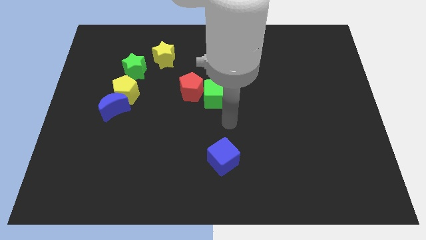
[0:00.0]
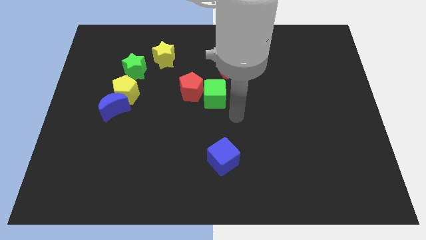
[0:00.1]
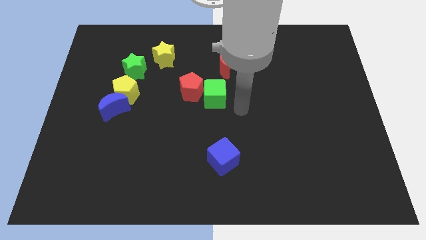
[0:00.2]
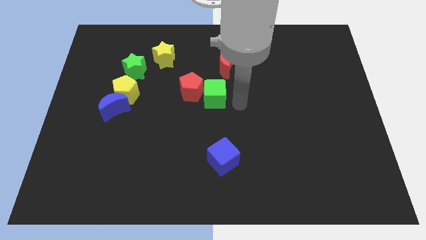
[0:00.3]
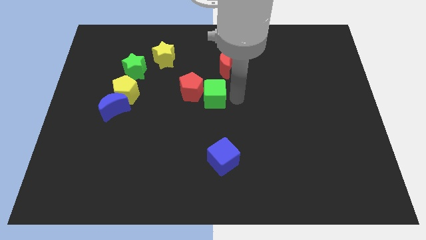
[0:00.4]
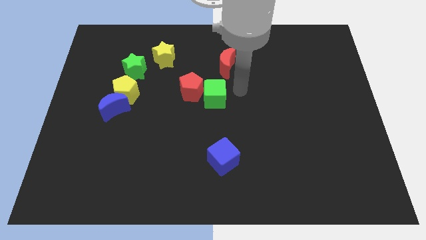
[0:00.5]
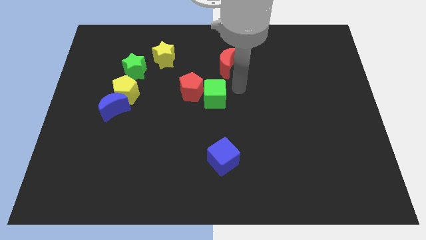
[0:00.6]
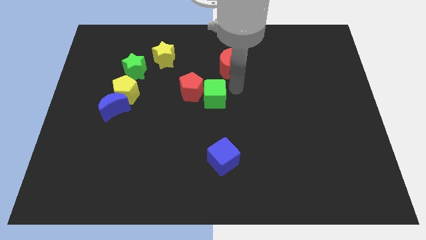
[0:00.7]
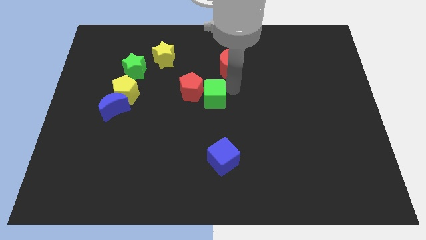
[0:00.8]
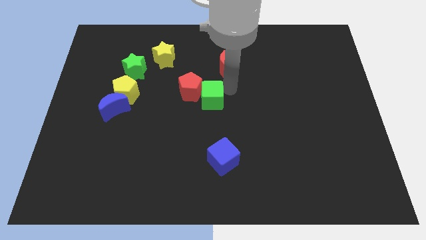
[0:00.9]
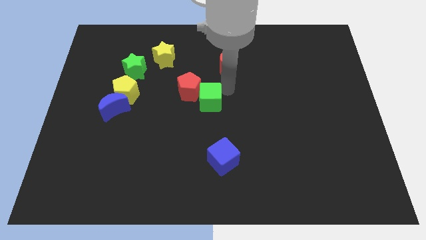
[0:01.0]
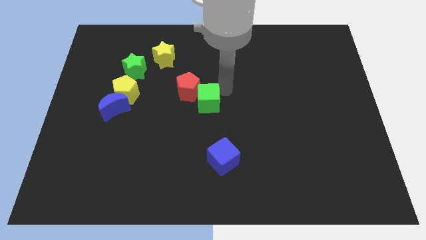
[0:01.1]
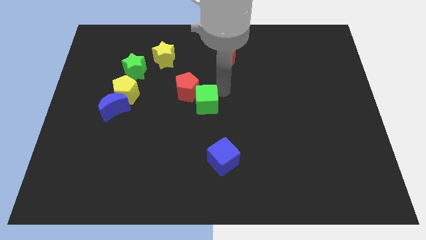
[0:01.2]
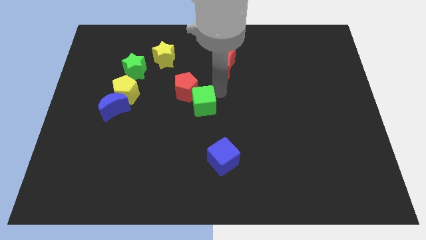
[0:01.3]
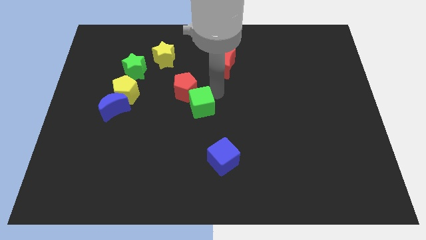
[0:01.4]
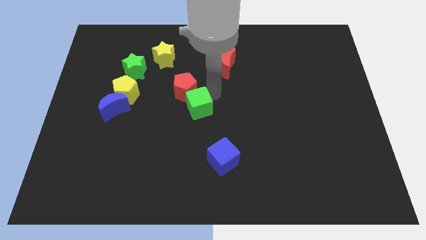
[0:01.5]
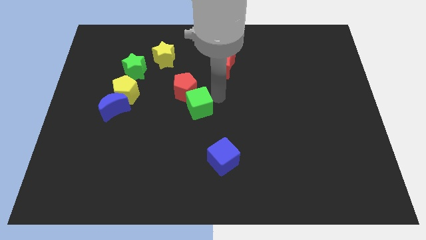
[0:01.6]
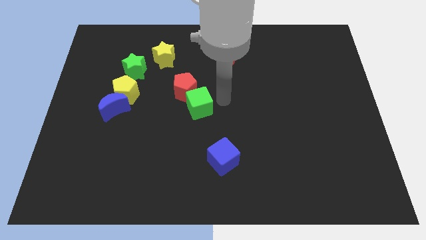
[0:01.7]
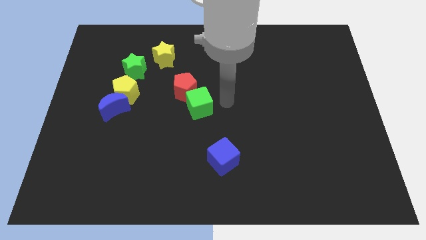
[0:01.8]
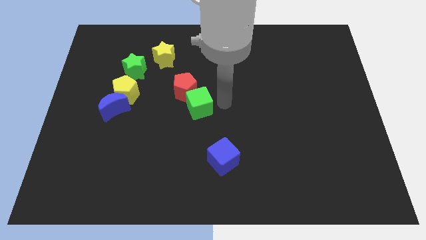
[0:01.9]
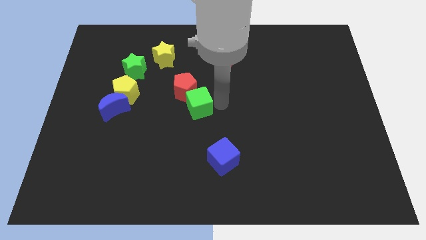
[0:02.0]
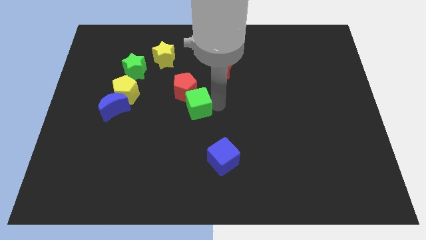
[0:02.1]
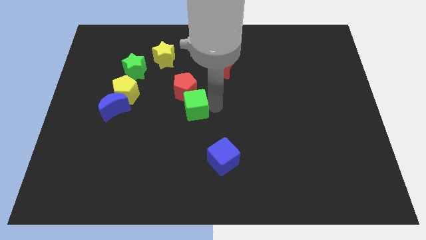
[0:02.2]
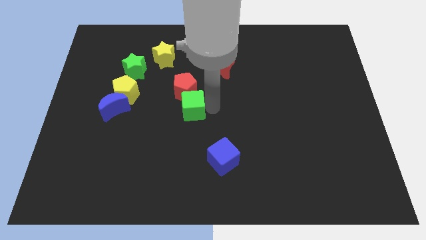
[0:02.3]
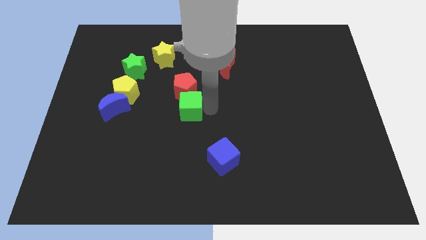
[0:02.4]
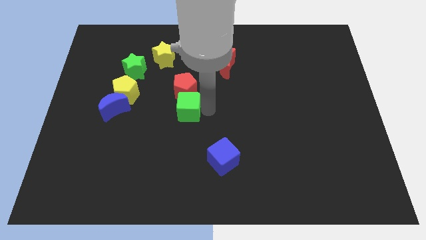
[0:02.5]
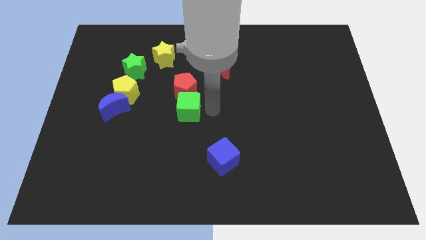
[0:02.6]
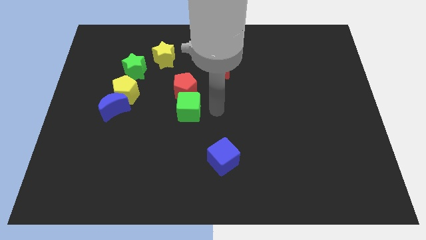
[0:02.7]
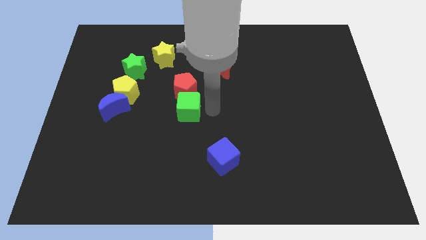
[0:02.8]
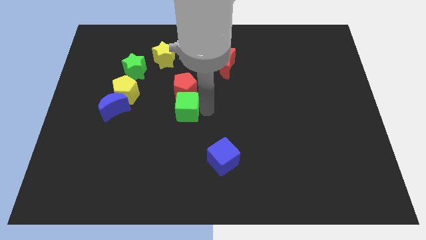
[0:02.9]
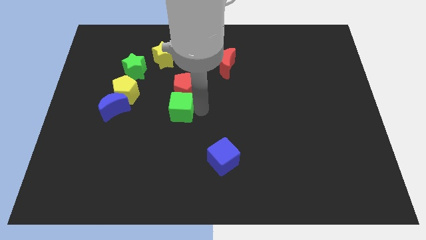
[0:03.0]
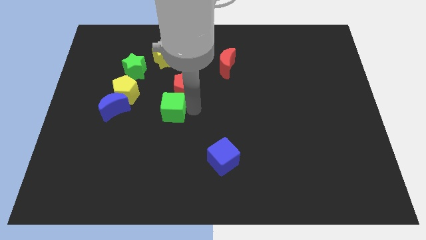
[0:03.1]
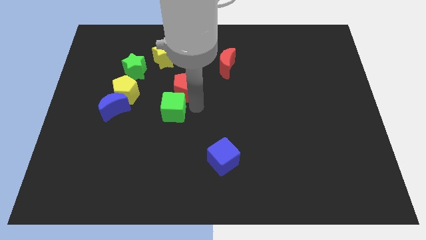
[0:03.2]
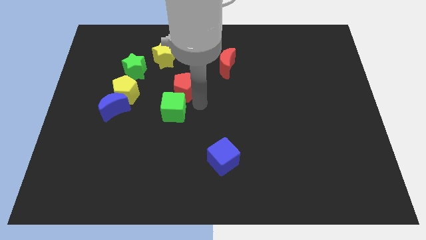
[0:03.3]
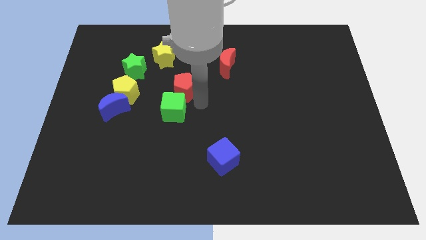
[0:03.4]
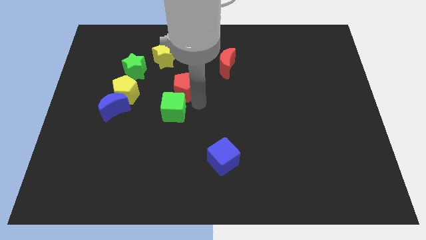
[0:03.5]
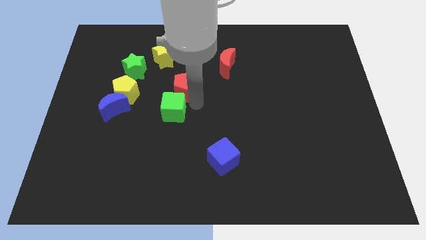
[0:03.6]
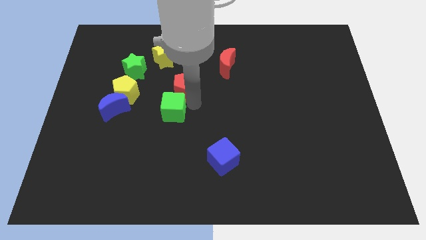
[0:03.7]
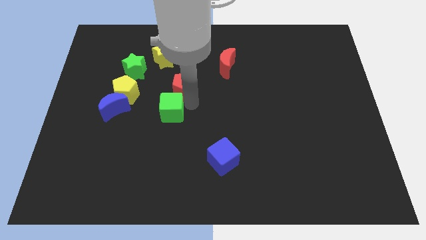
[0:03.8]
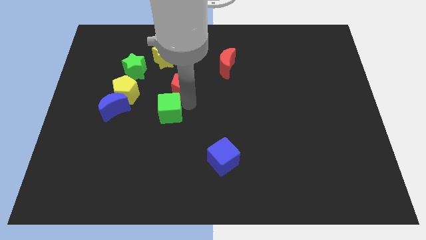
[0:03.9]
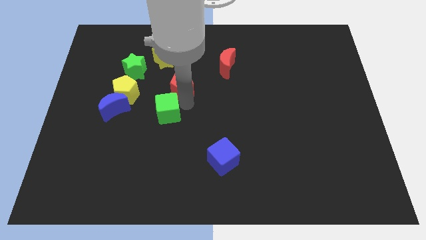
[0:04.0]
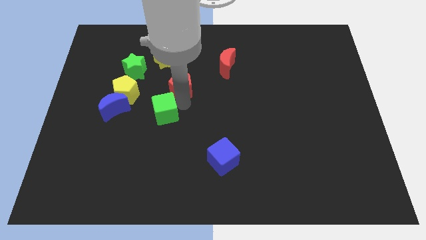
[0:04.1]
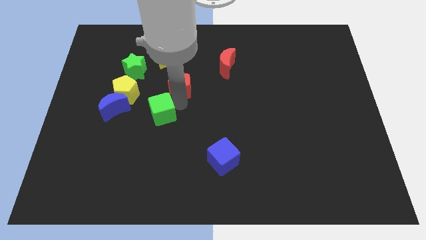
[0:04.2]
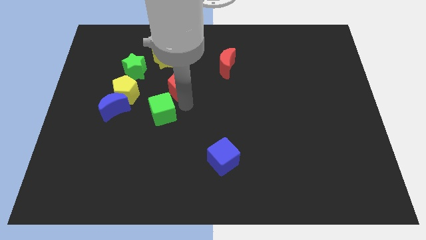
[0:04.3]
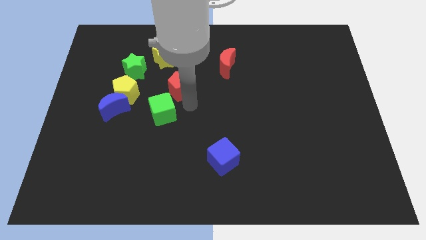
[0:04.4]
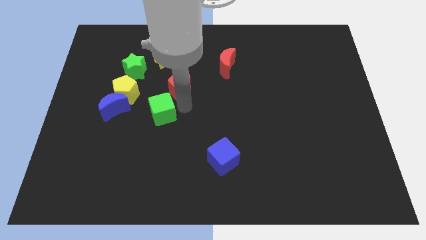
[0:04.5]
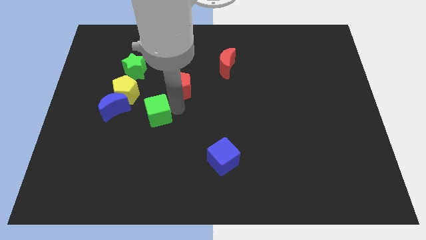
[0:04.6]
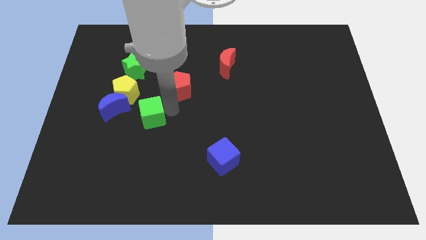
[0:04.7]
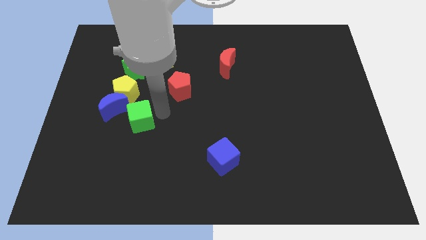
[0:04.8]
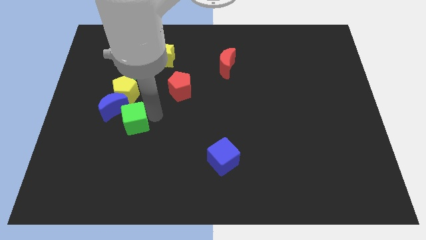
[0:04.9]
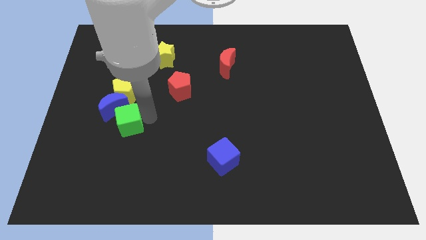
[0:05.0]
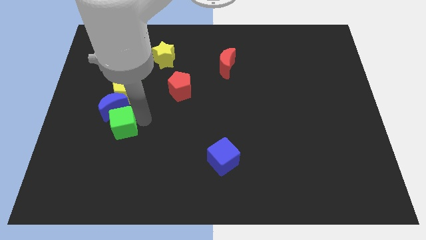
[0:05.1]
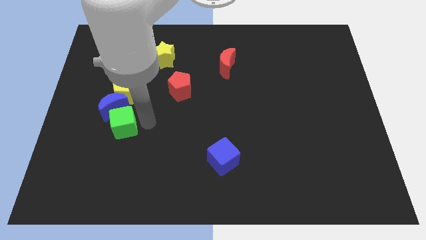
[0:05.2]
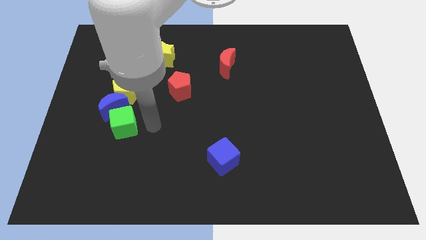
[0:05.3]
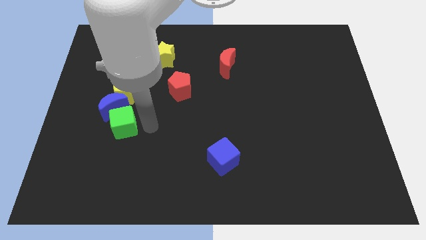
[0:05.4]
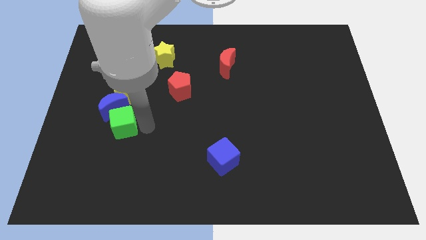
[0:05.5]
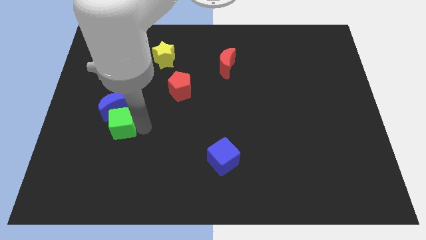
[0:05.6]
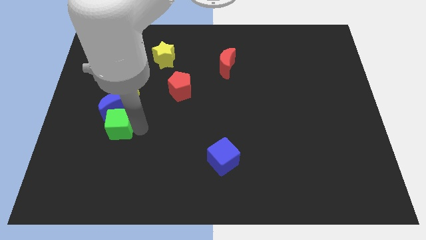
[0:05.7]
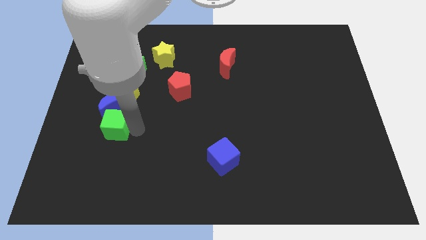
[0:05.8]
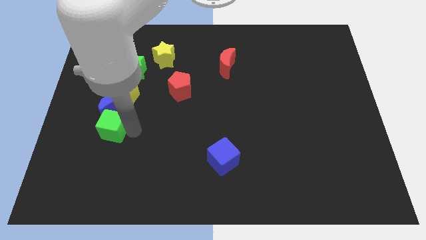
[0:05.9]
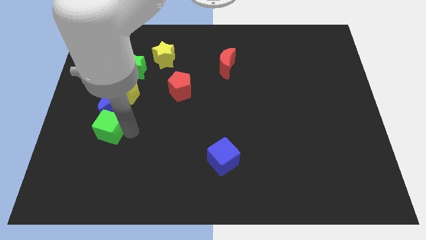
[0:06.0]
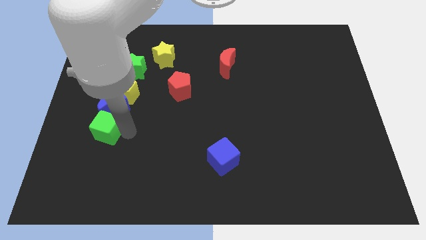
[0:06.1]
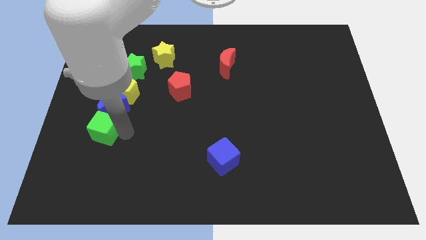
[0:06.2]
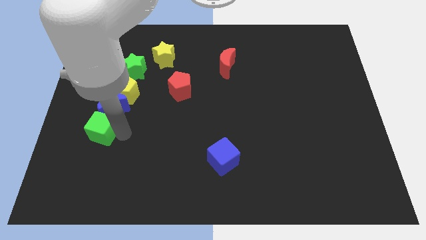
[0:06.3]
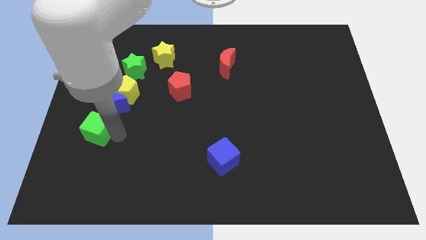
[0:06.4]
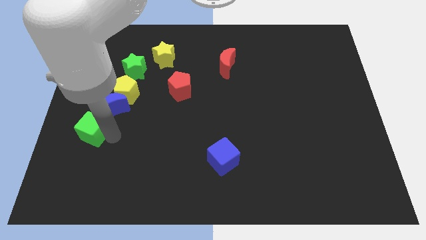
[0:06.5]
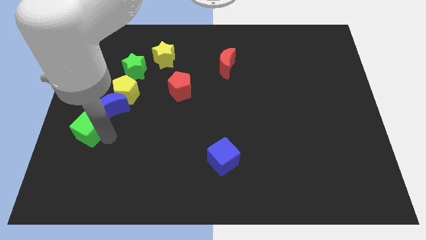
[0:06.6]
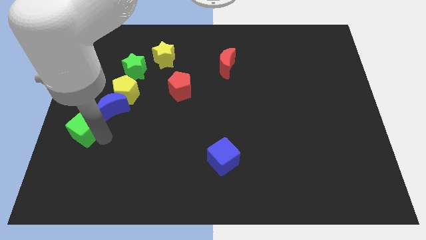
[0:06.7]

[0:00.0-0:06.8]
move the green cube to the left side of the board
